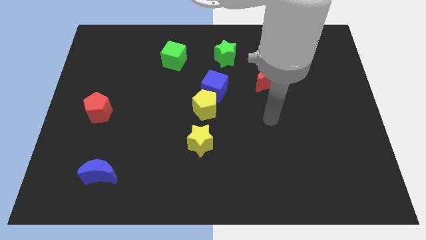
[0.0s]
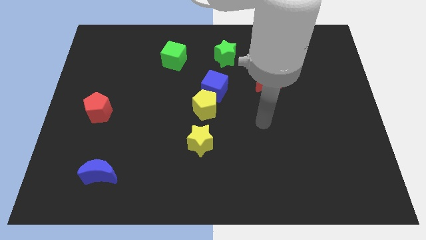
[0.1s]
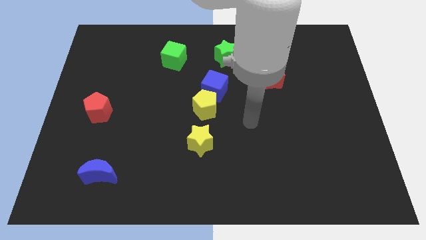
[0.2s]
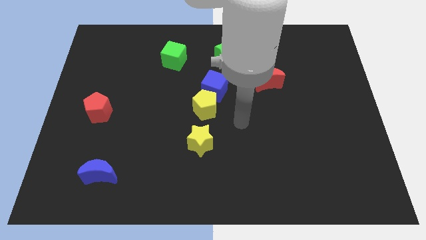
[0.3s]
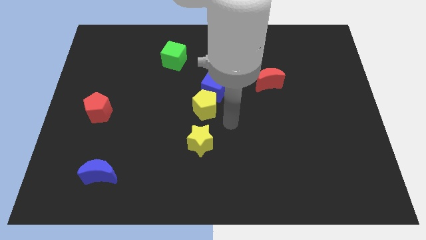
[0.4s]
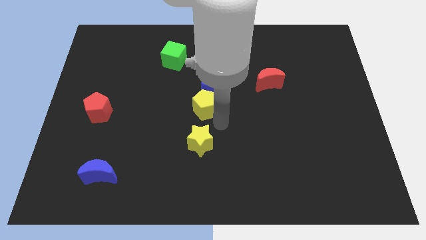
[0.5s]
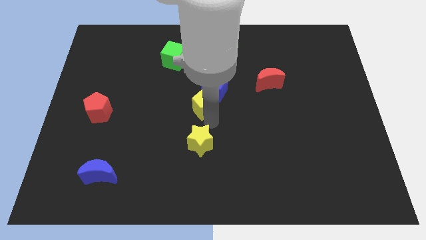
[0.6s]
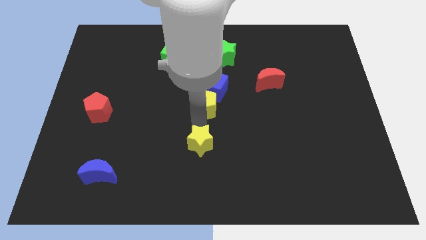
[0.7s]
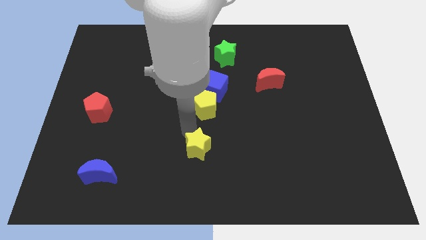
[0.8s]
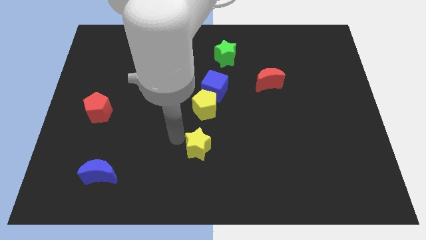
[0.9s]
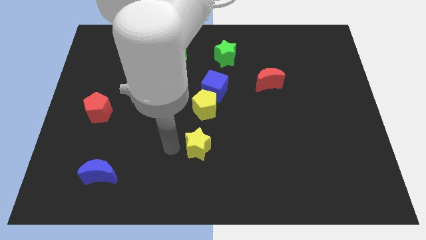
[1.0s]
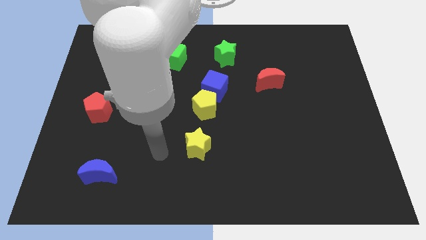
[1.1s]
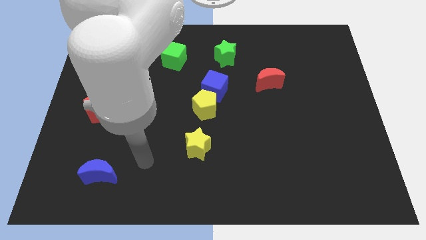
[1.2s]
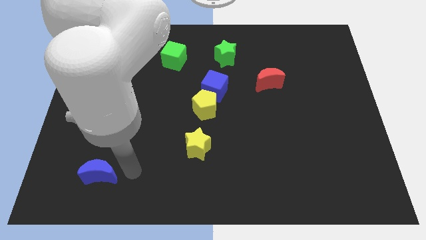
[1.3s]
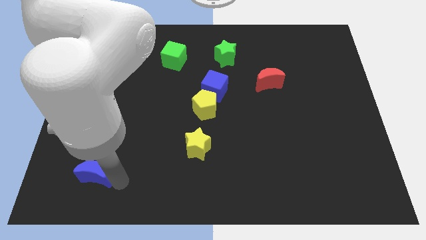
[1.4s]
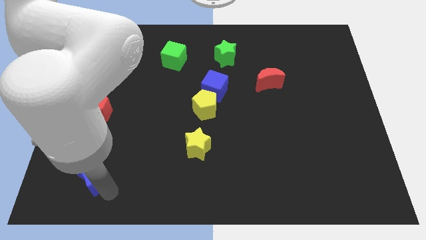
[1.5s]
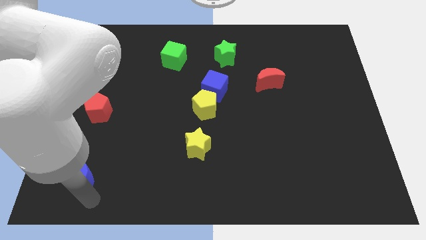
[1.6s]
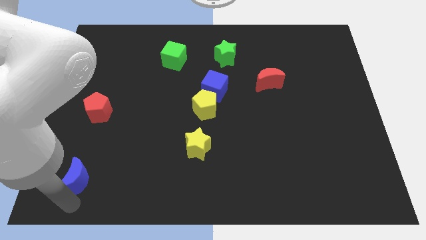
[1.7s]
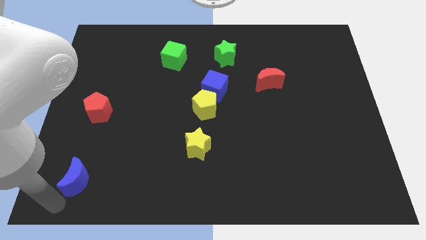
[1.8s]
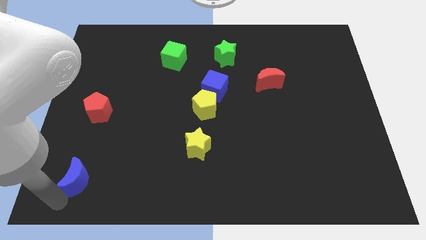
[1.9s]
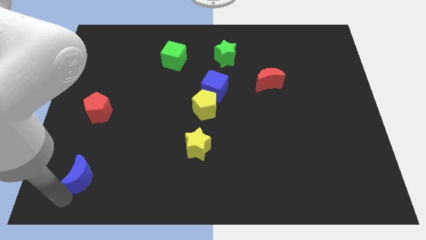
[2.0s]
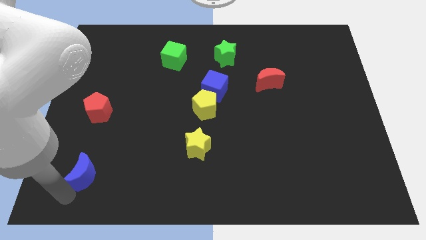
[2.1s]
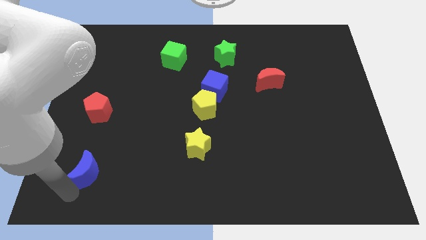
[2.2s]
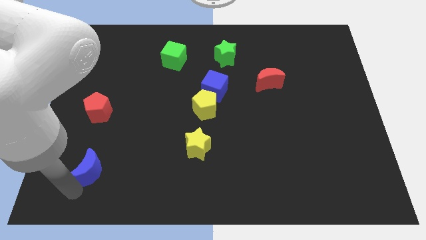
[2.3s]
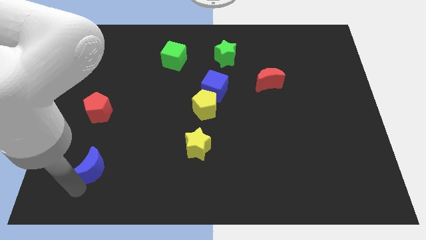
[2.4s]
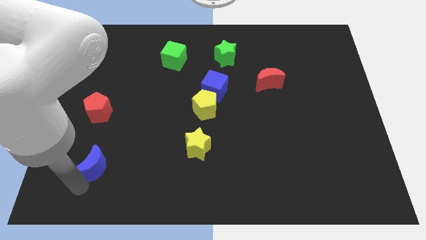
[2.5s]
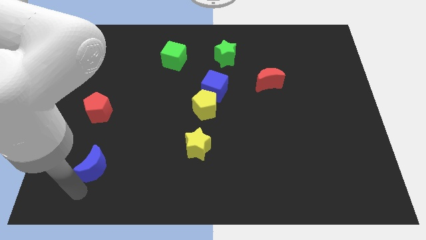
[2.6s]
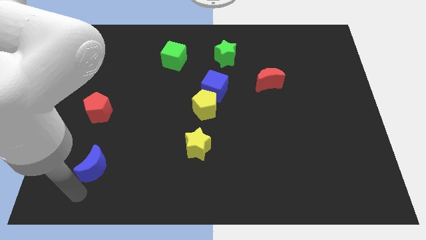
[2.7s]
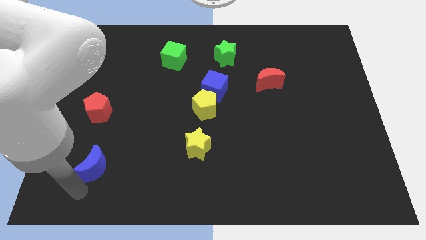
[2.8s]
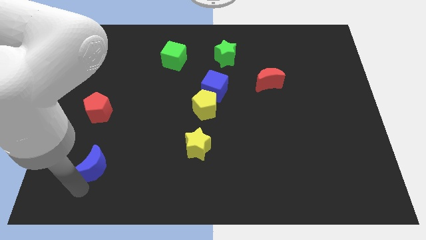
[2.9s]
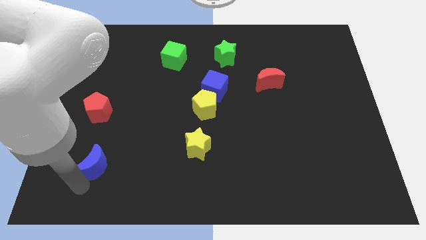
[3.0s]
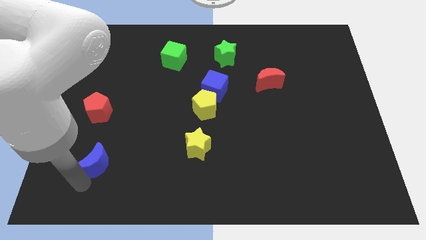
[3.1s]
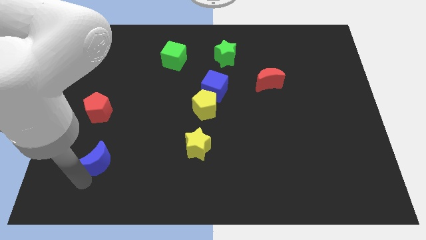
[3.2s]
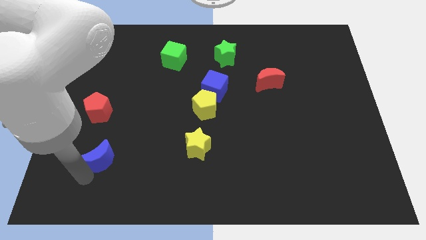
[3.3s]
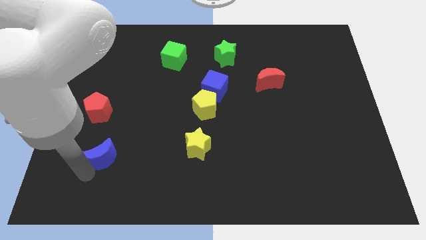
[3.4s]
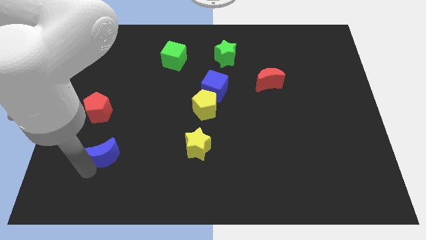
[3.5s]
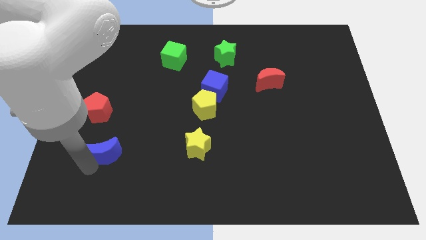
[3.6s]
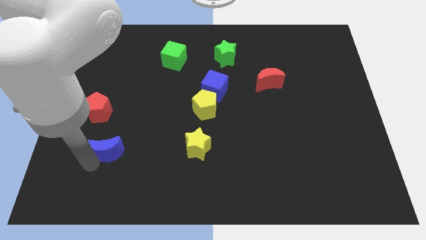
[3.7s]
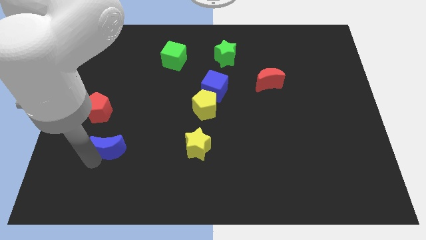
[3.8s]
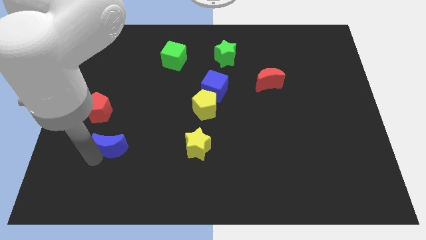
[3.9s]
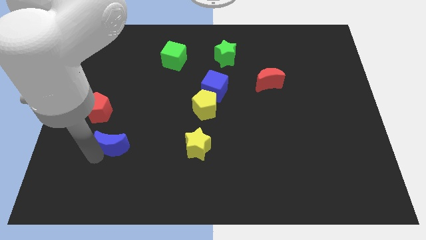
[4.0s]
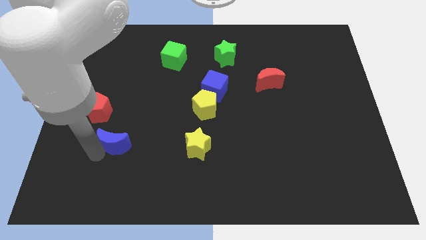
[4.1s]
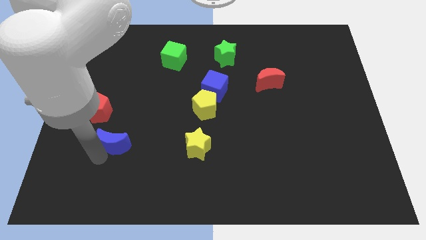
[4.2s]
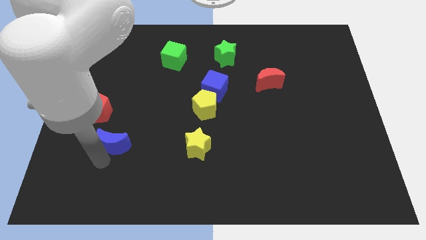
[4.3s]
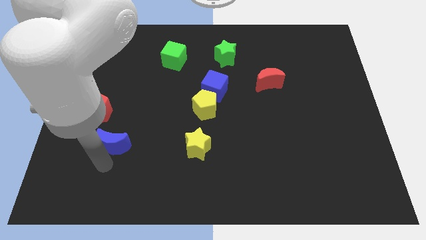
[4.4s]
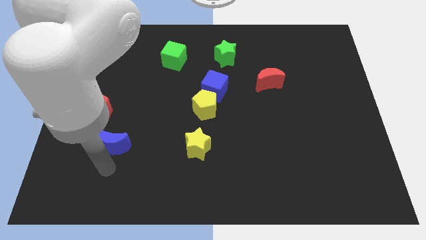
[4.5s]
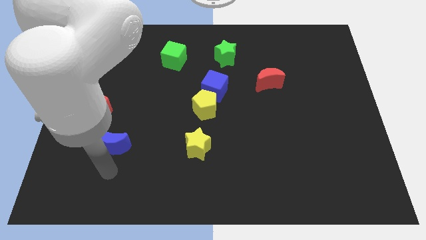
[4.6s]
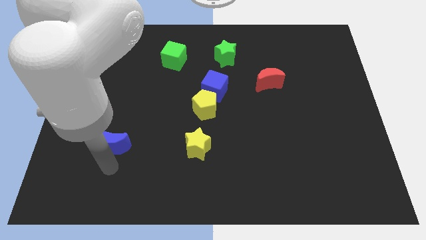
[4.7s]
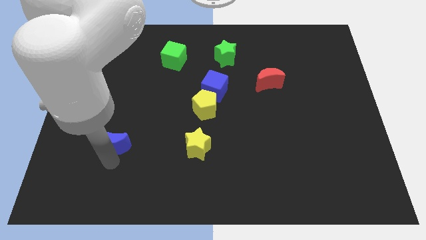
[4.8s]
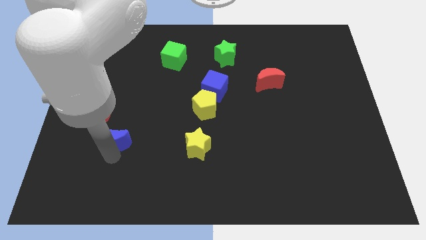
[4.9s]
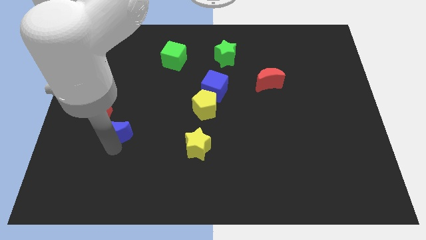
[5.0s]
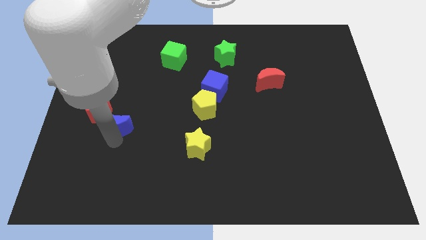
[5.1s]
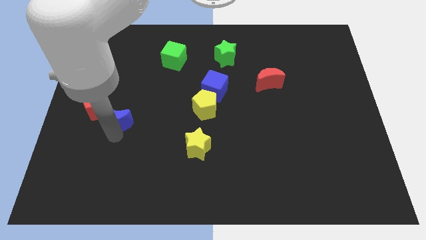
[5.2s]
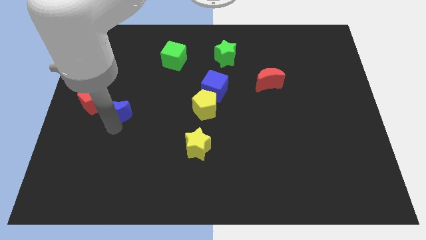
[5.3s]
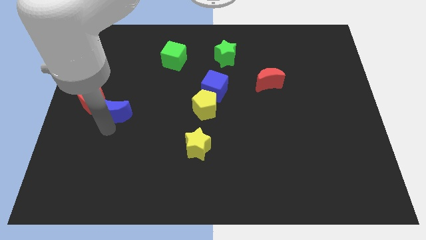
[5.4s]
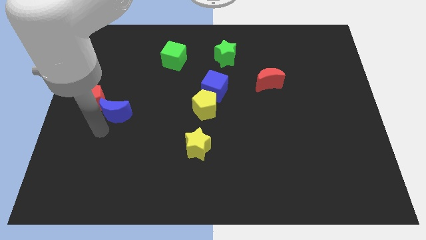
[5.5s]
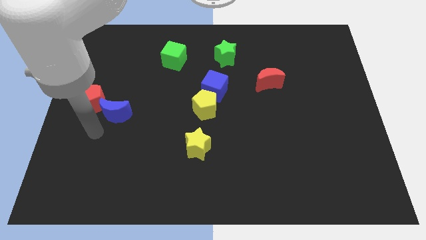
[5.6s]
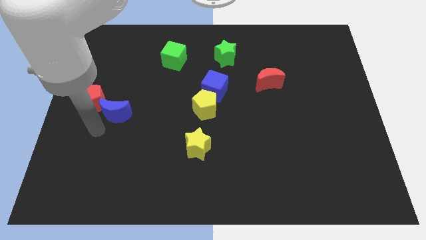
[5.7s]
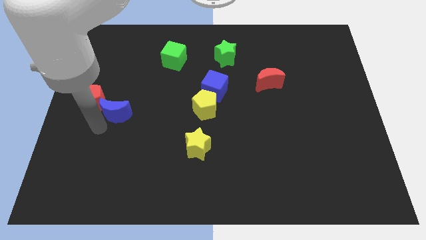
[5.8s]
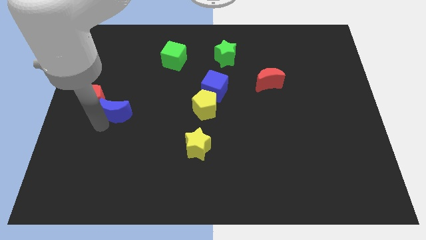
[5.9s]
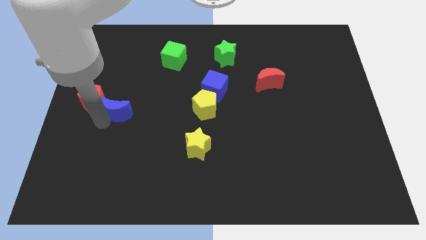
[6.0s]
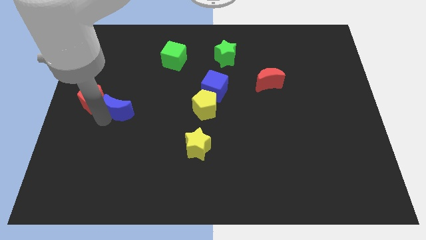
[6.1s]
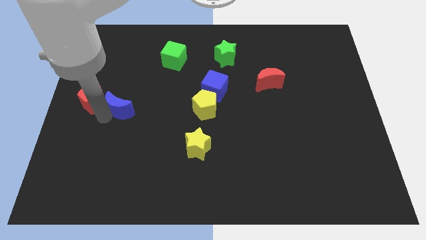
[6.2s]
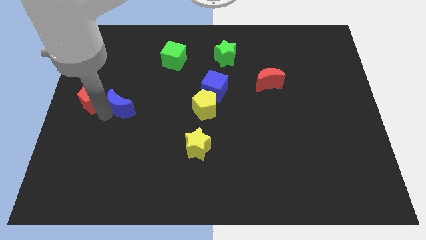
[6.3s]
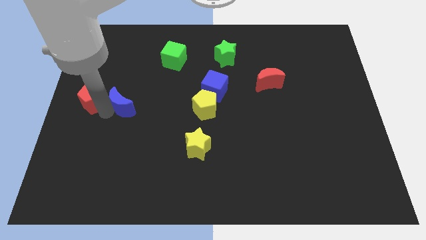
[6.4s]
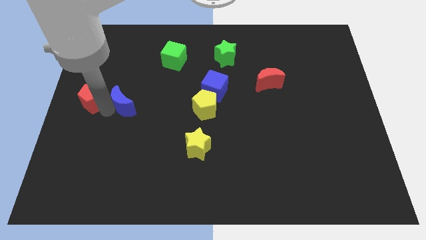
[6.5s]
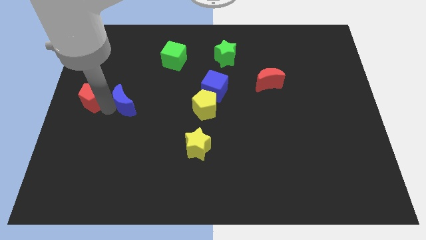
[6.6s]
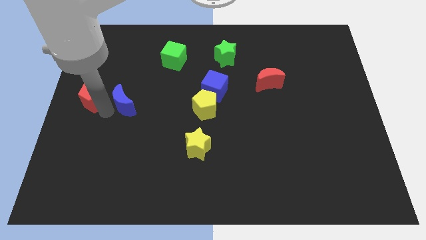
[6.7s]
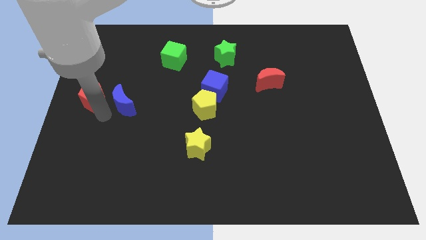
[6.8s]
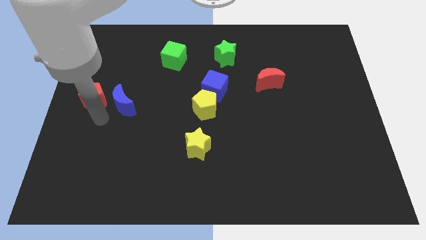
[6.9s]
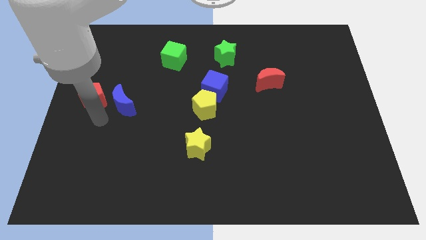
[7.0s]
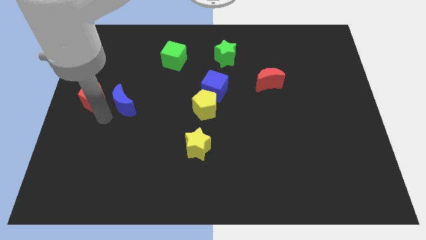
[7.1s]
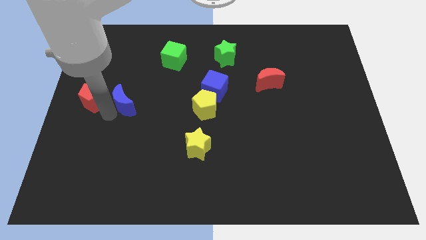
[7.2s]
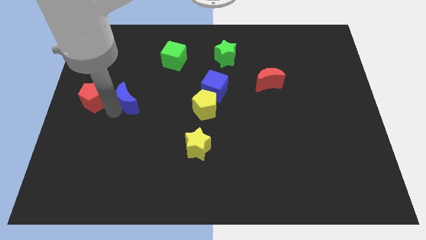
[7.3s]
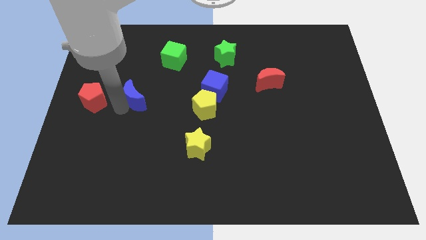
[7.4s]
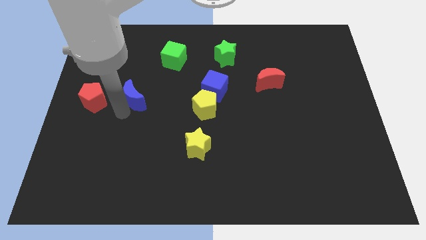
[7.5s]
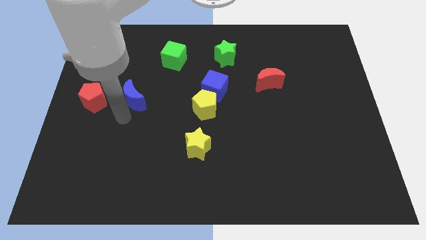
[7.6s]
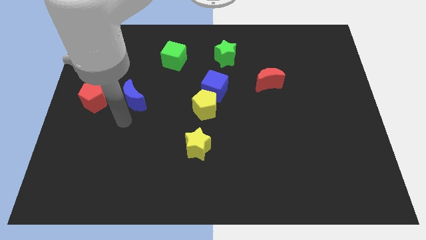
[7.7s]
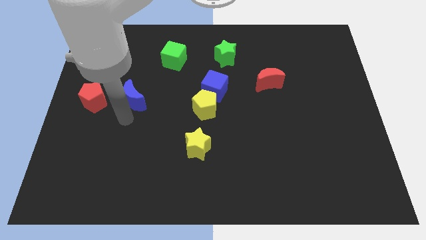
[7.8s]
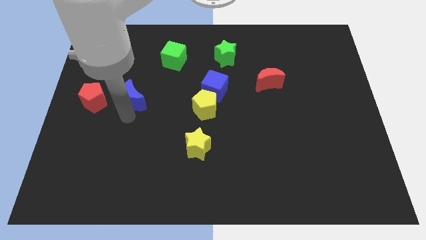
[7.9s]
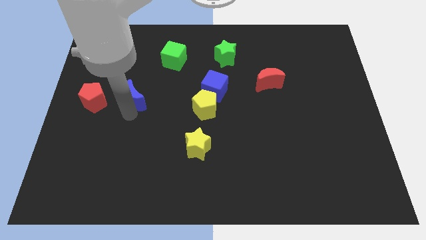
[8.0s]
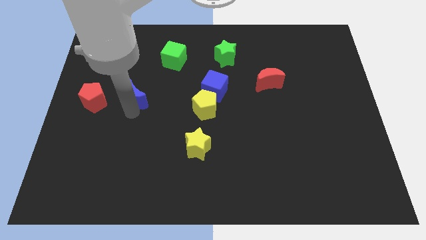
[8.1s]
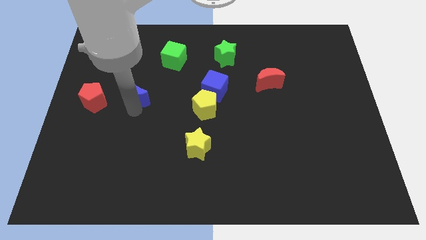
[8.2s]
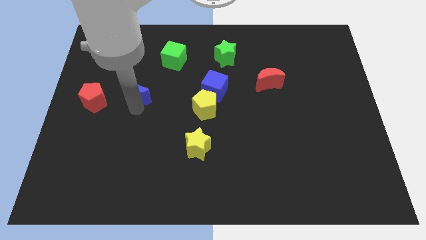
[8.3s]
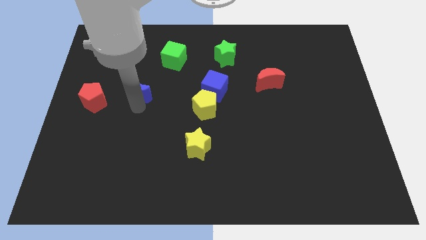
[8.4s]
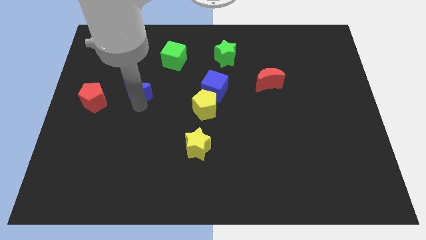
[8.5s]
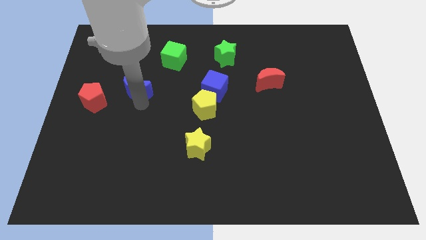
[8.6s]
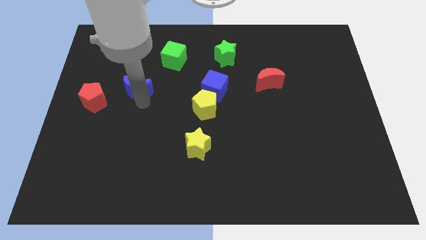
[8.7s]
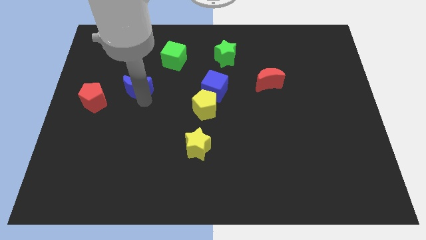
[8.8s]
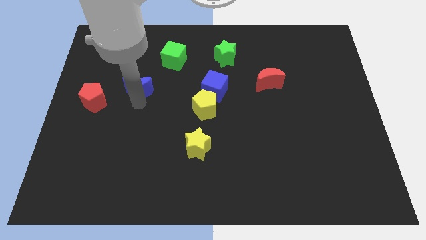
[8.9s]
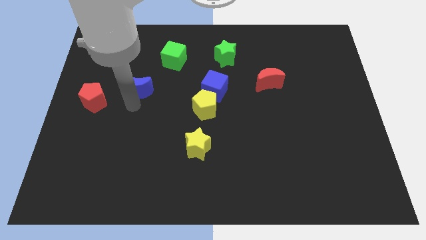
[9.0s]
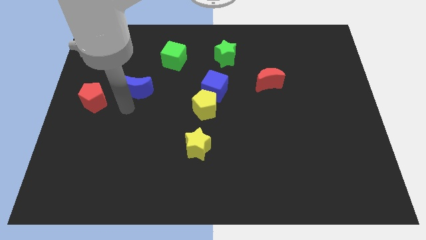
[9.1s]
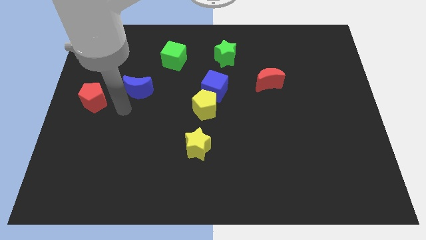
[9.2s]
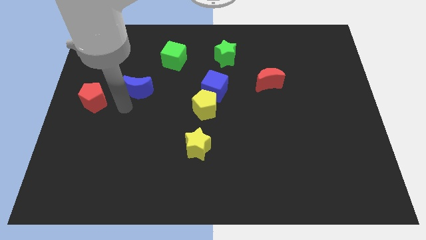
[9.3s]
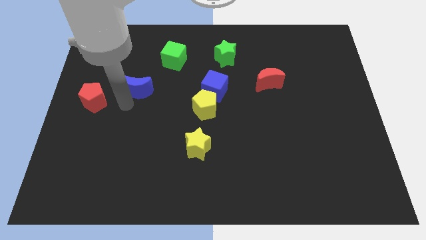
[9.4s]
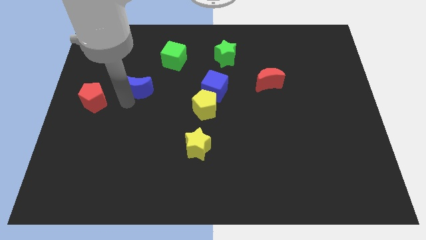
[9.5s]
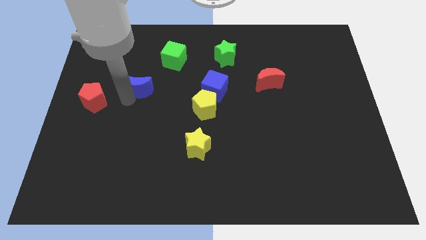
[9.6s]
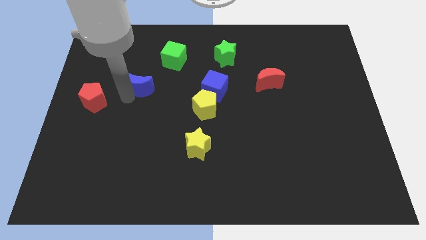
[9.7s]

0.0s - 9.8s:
slide the blue moon diagonally down and to the left of the green cube
